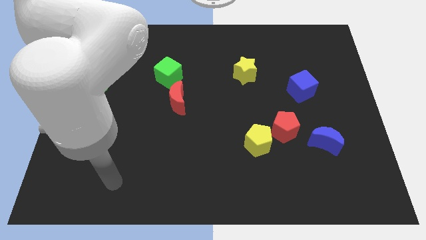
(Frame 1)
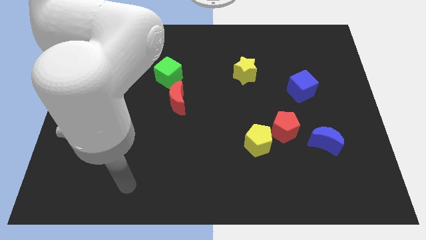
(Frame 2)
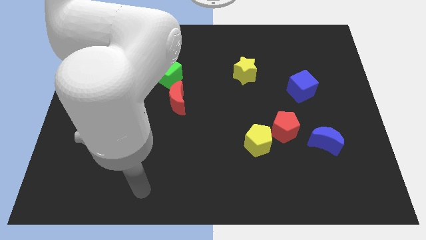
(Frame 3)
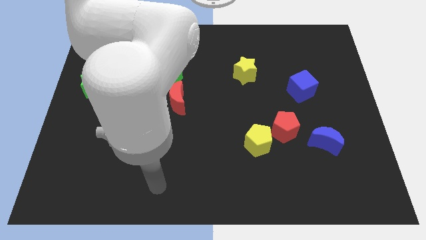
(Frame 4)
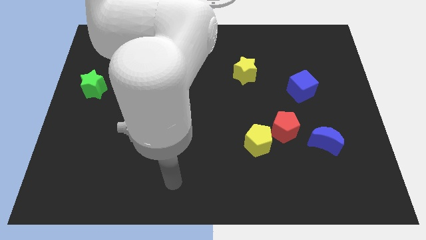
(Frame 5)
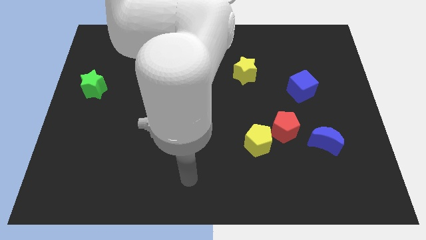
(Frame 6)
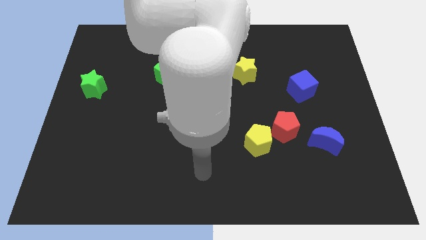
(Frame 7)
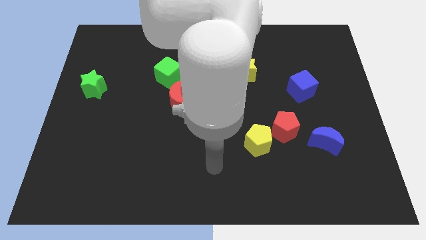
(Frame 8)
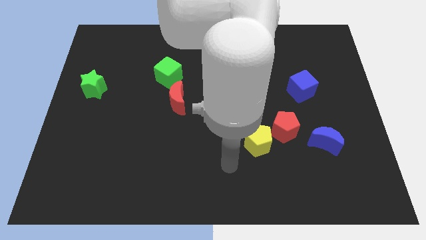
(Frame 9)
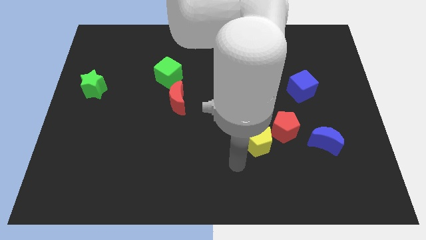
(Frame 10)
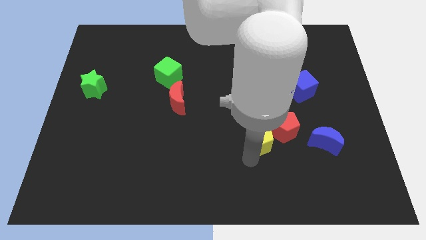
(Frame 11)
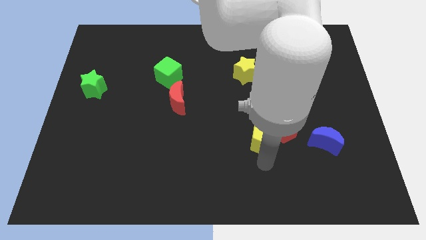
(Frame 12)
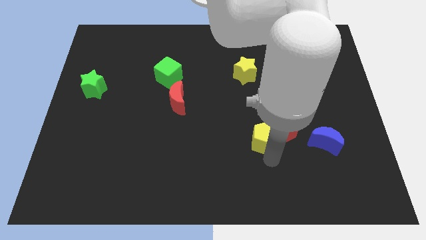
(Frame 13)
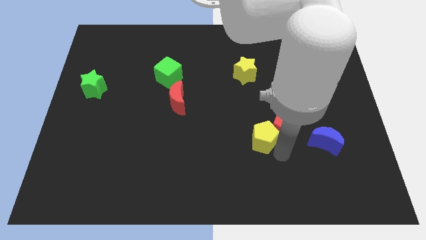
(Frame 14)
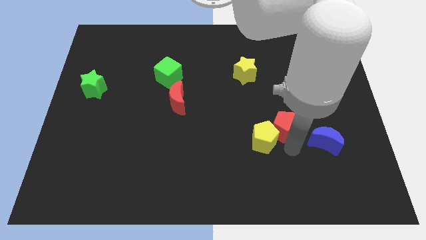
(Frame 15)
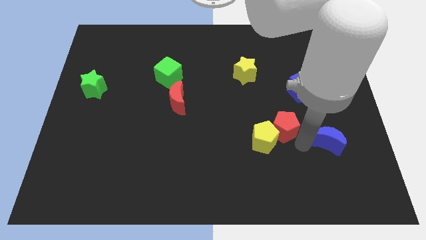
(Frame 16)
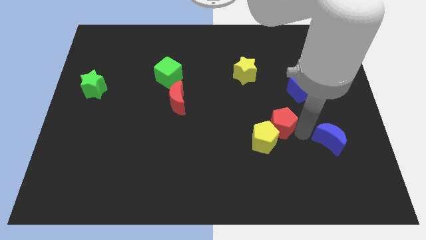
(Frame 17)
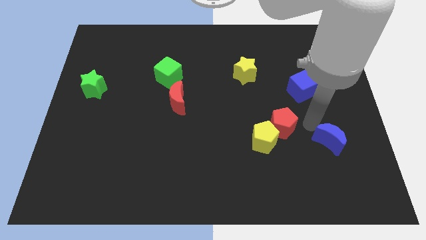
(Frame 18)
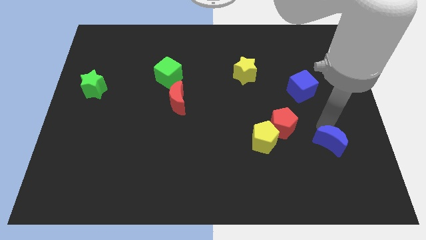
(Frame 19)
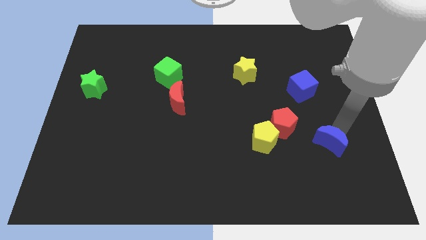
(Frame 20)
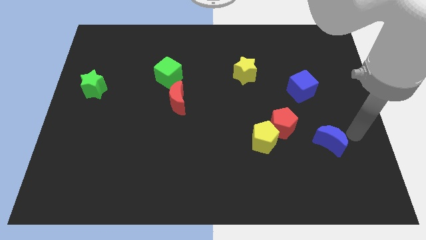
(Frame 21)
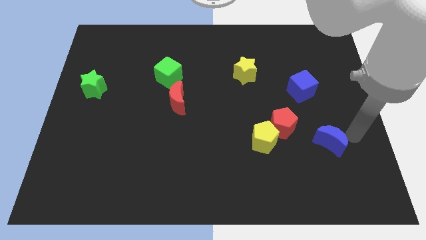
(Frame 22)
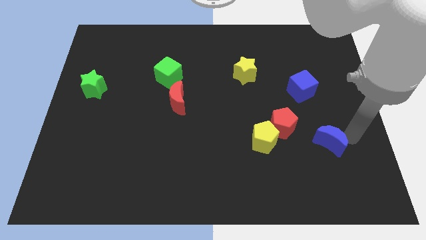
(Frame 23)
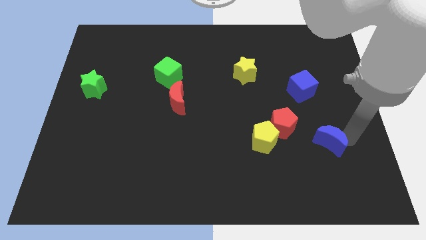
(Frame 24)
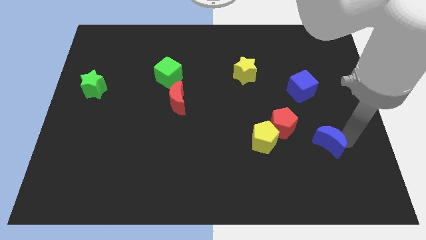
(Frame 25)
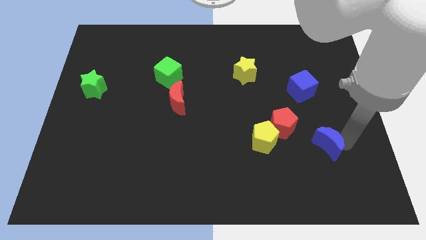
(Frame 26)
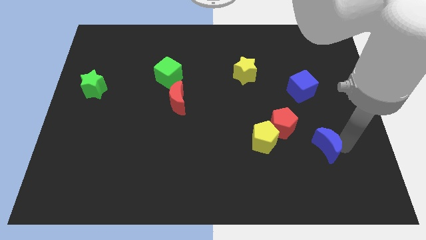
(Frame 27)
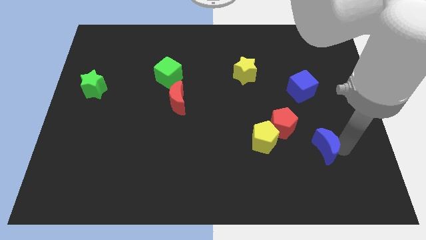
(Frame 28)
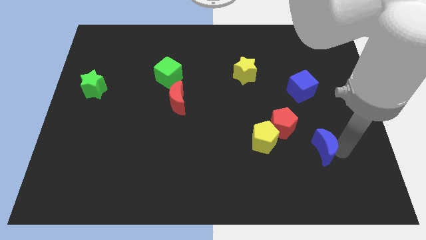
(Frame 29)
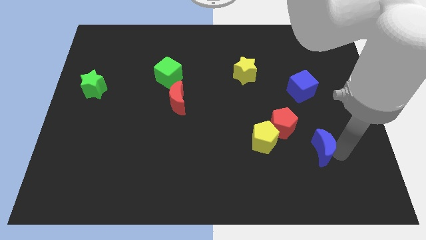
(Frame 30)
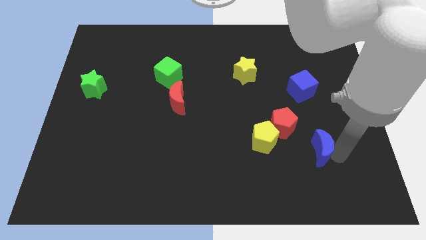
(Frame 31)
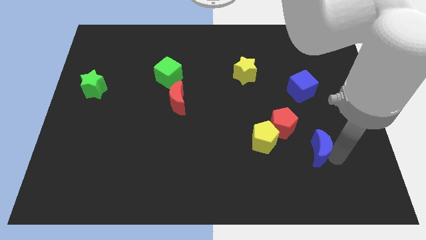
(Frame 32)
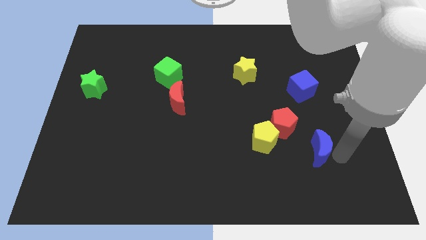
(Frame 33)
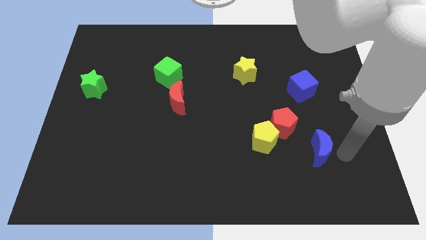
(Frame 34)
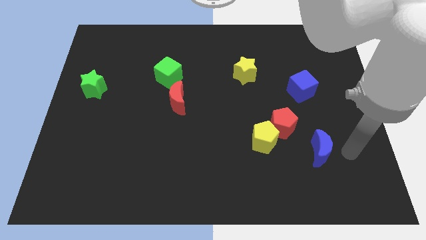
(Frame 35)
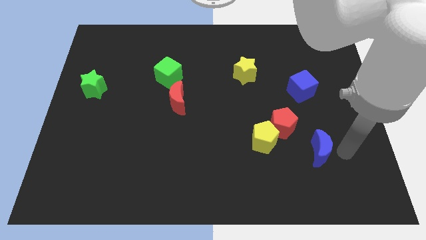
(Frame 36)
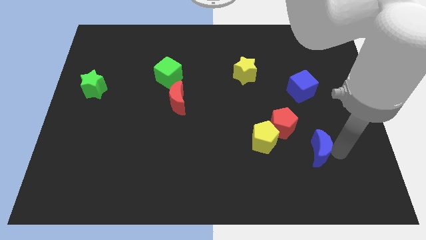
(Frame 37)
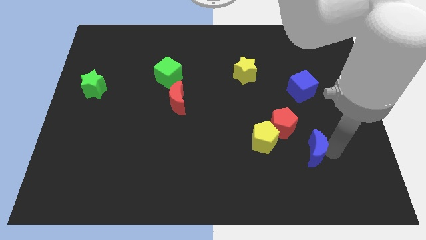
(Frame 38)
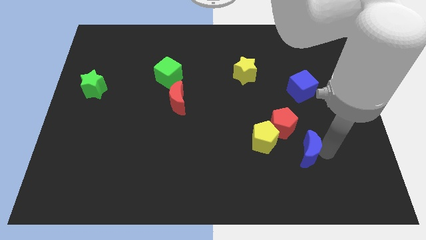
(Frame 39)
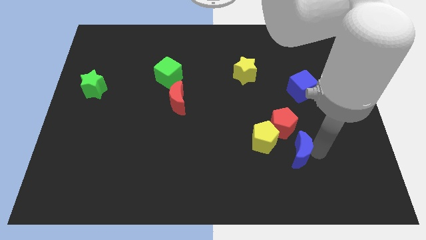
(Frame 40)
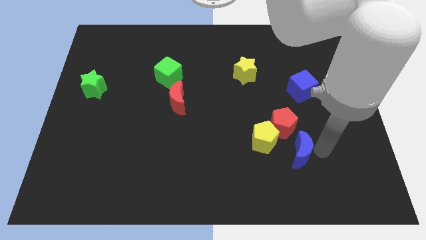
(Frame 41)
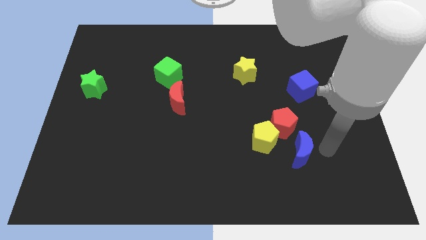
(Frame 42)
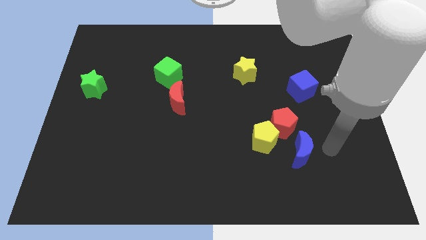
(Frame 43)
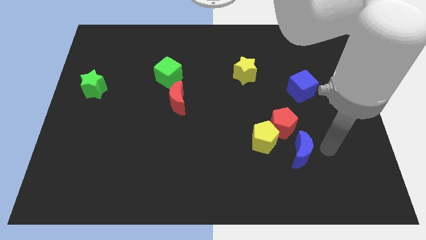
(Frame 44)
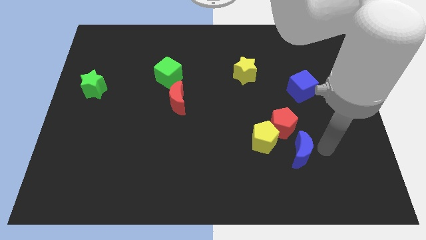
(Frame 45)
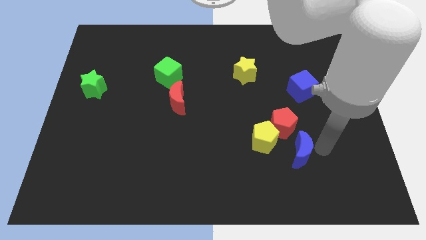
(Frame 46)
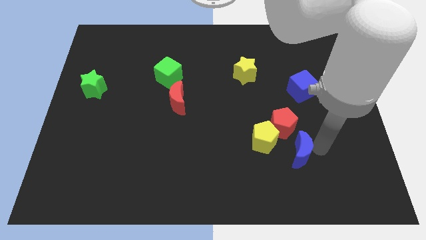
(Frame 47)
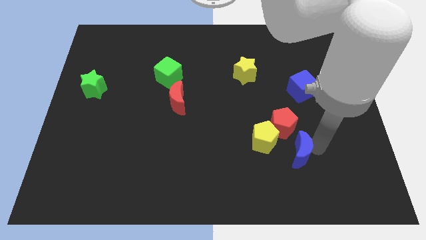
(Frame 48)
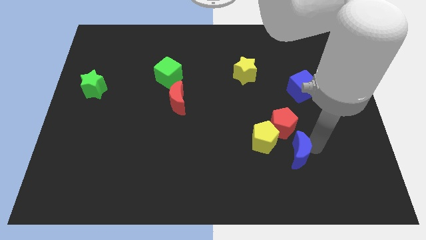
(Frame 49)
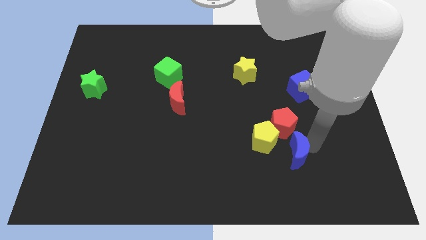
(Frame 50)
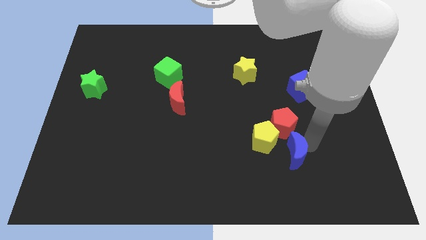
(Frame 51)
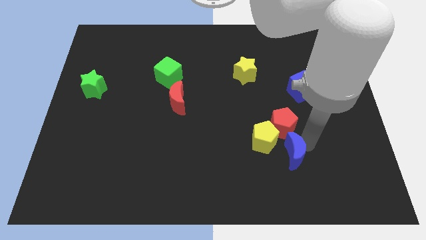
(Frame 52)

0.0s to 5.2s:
slightly move the blue moon to the left

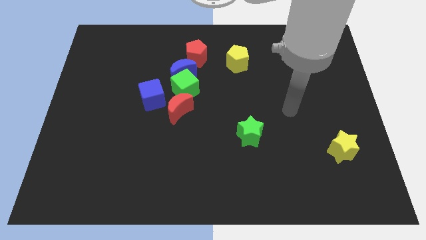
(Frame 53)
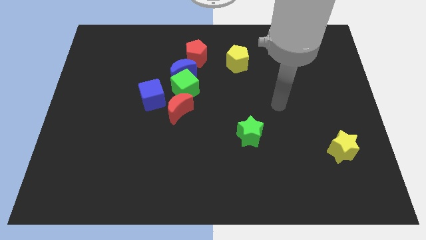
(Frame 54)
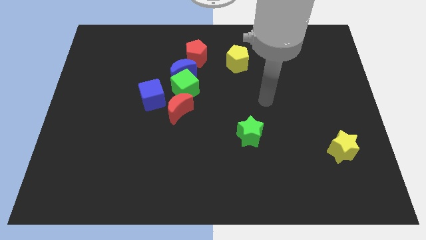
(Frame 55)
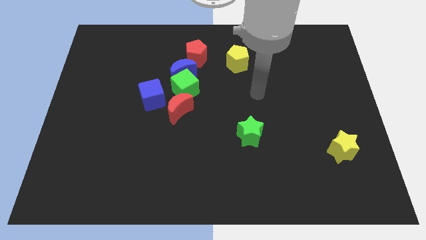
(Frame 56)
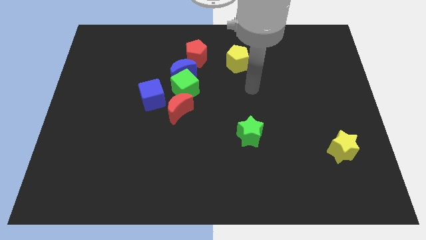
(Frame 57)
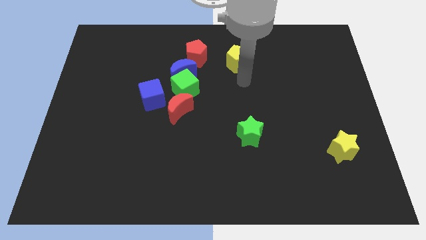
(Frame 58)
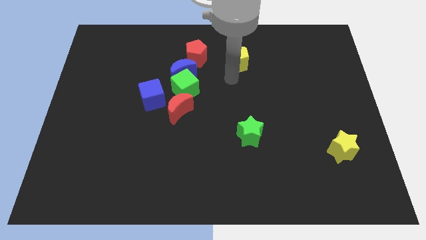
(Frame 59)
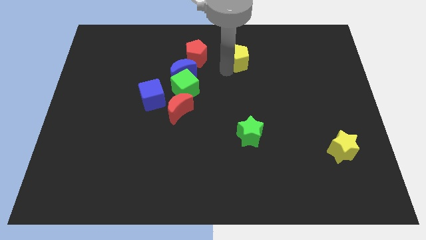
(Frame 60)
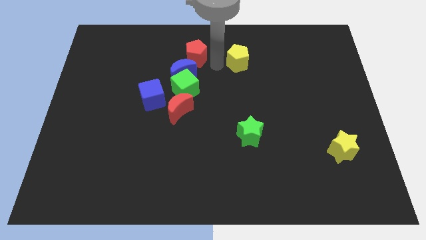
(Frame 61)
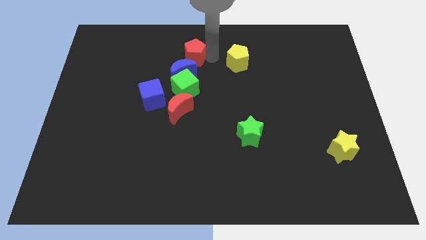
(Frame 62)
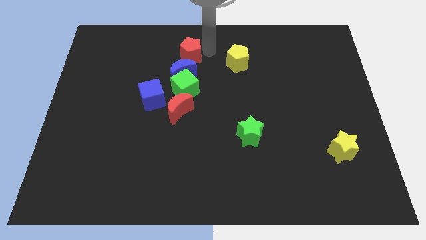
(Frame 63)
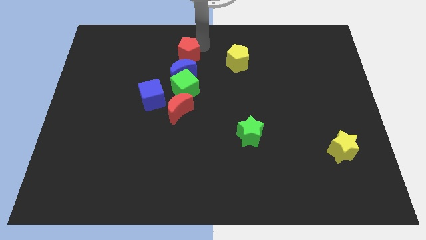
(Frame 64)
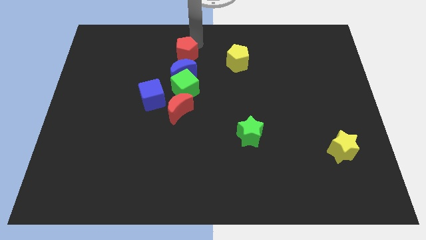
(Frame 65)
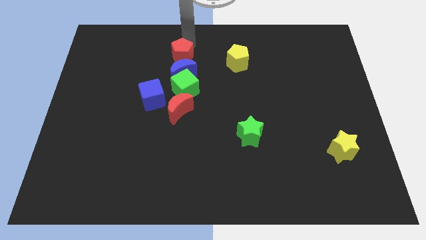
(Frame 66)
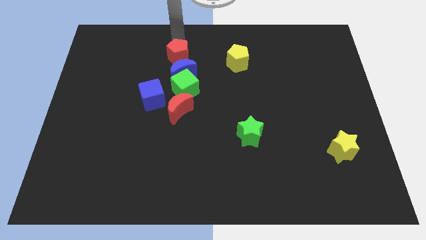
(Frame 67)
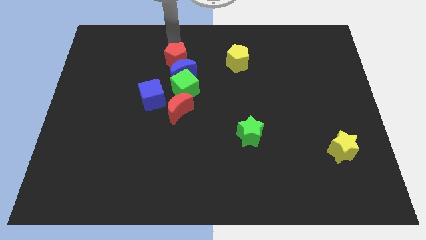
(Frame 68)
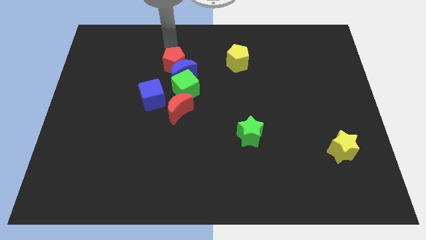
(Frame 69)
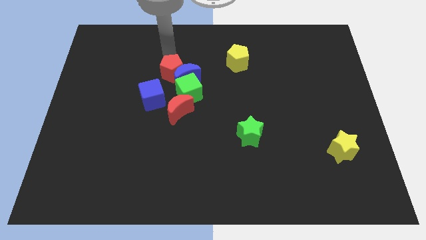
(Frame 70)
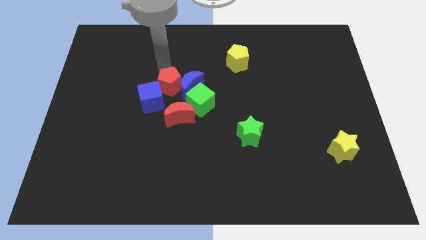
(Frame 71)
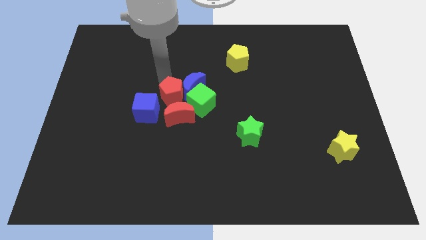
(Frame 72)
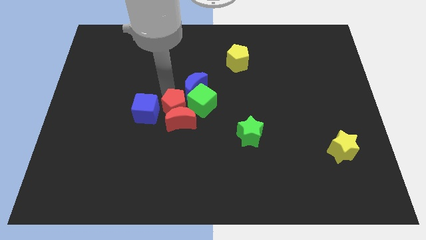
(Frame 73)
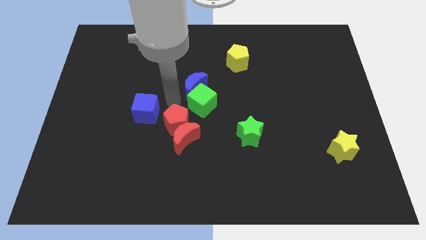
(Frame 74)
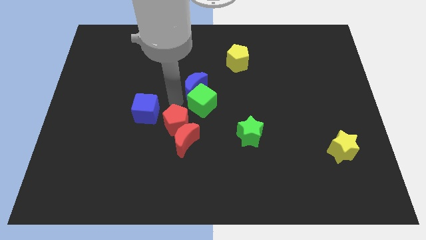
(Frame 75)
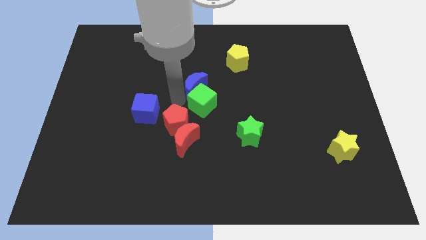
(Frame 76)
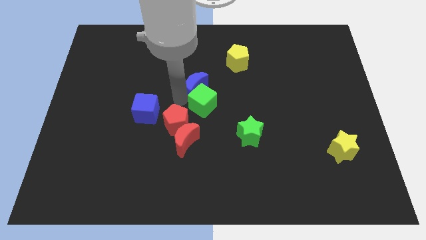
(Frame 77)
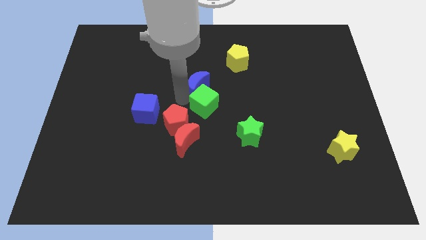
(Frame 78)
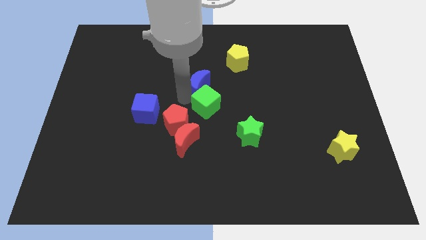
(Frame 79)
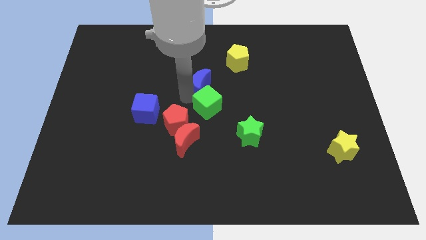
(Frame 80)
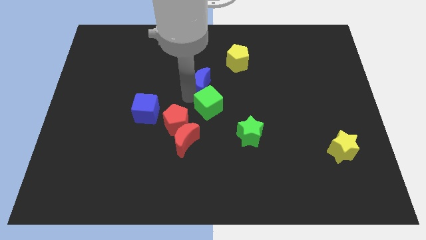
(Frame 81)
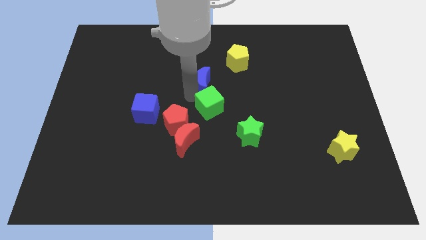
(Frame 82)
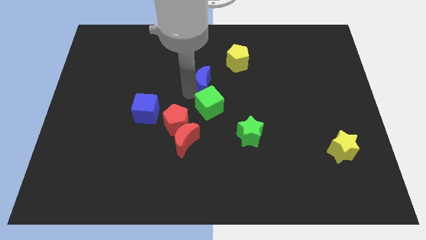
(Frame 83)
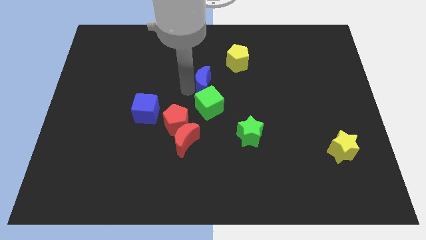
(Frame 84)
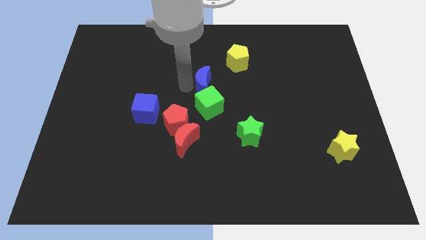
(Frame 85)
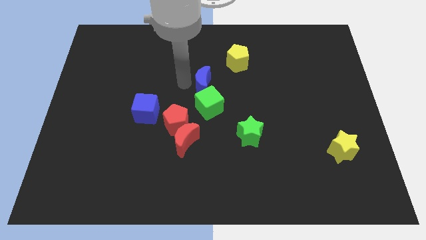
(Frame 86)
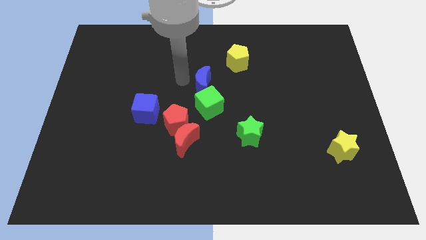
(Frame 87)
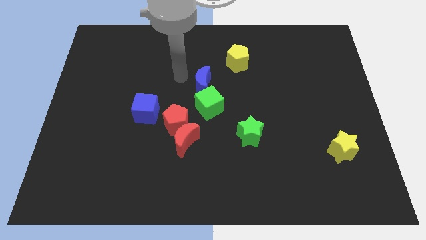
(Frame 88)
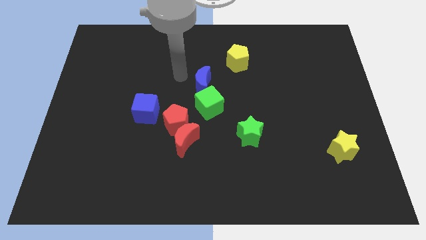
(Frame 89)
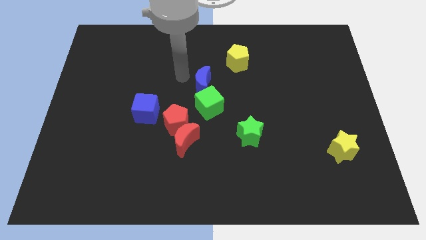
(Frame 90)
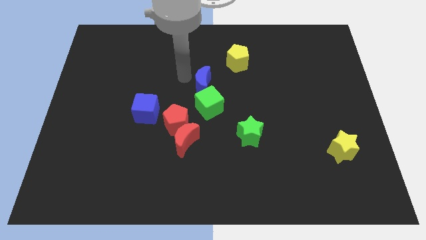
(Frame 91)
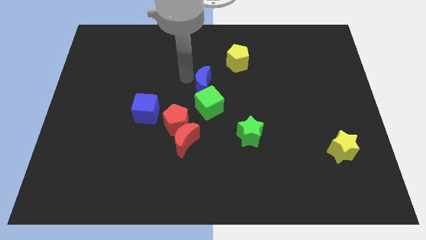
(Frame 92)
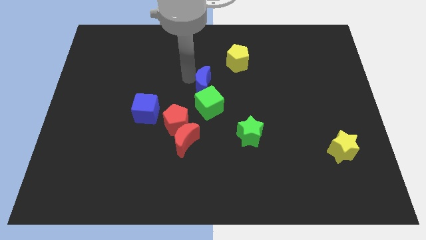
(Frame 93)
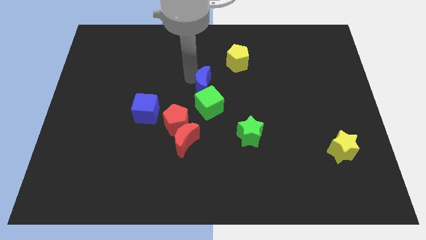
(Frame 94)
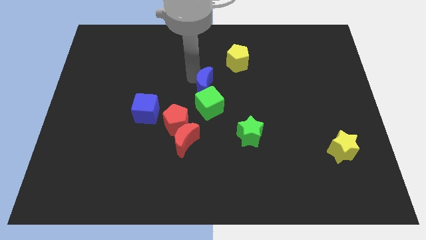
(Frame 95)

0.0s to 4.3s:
push the blue moon a bit downwards and then right
